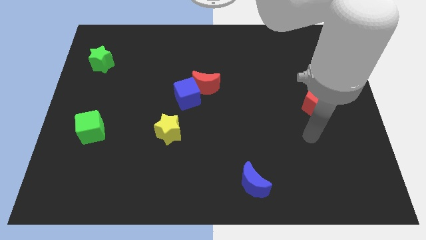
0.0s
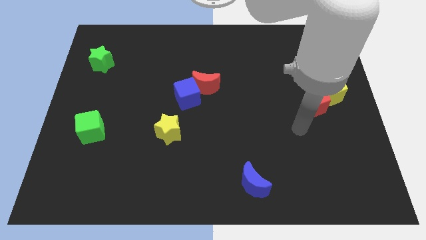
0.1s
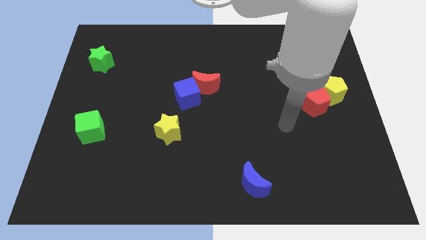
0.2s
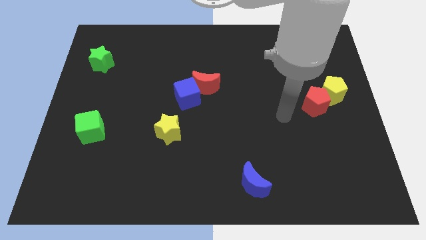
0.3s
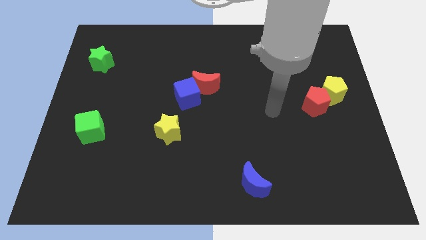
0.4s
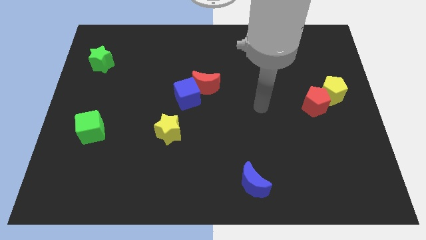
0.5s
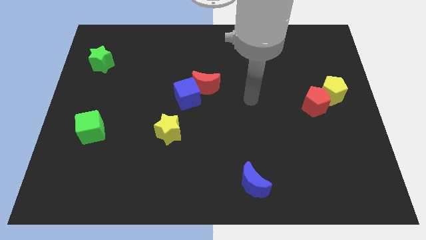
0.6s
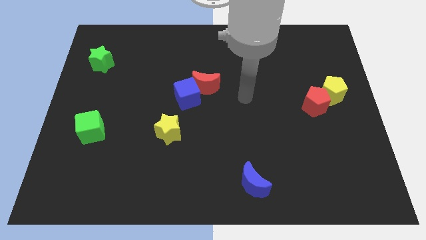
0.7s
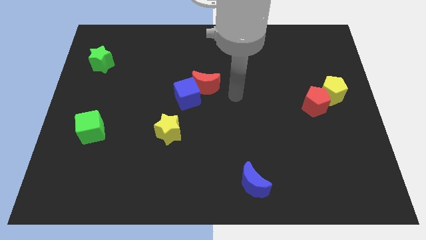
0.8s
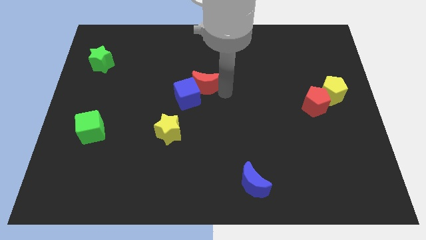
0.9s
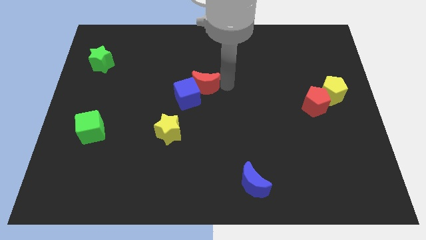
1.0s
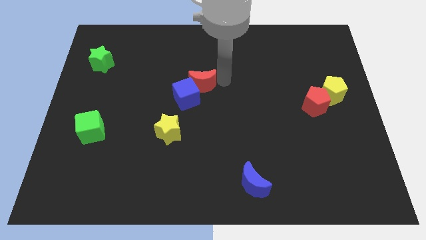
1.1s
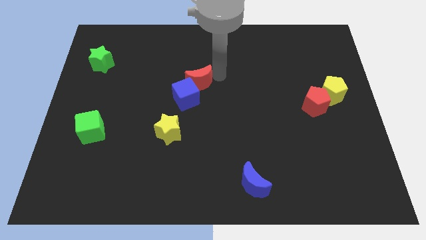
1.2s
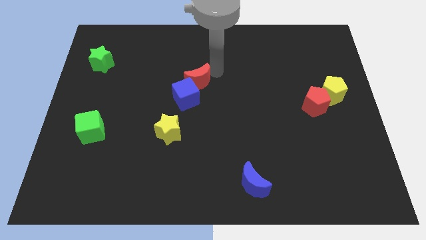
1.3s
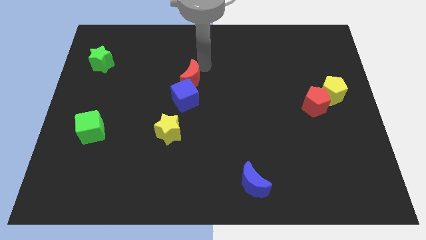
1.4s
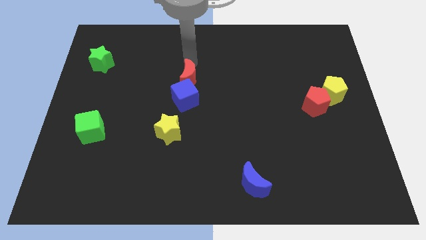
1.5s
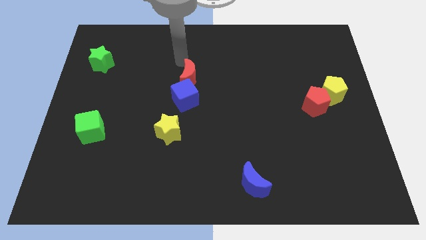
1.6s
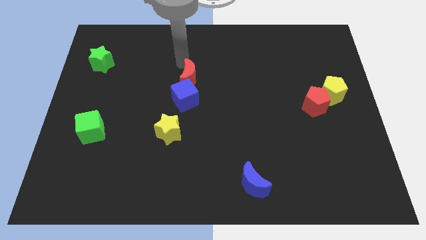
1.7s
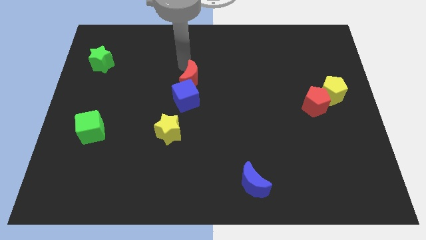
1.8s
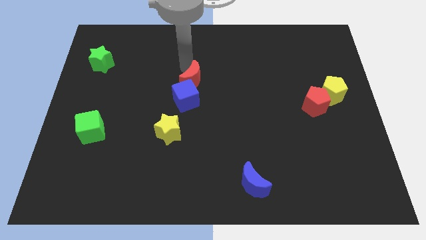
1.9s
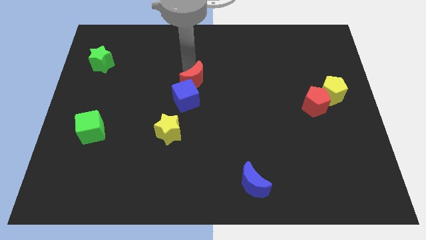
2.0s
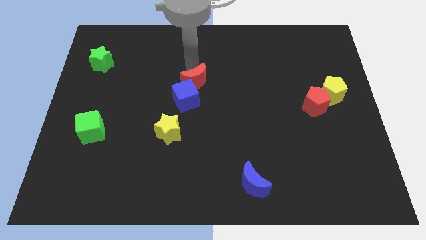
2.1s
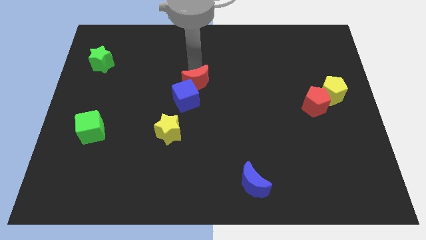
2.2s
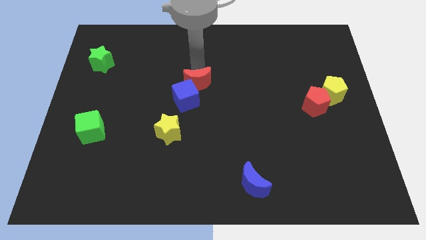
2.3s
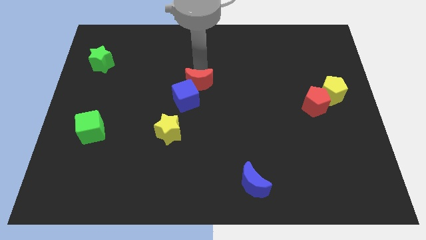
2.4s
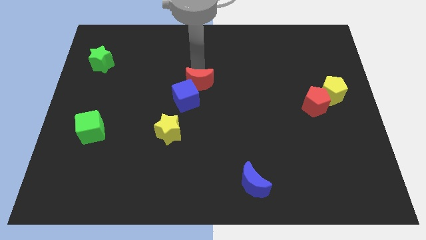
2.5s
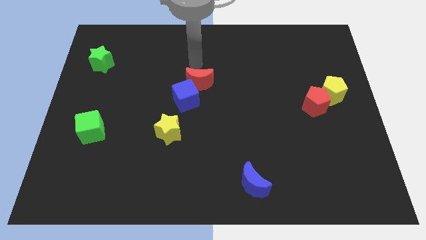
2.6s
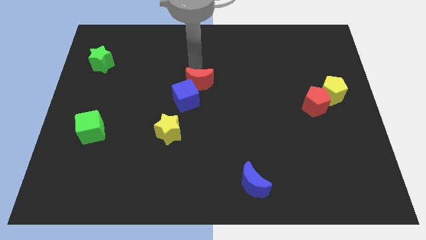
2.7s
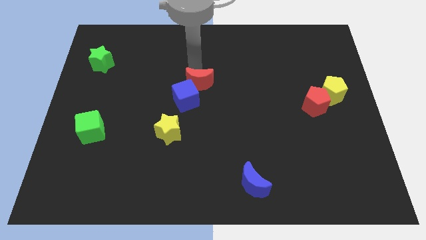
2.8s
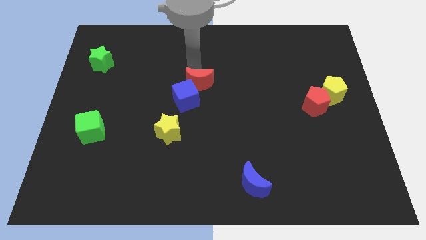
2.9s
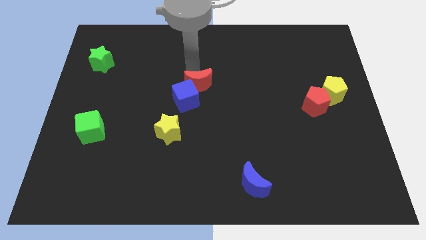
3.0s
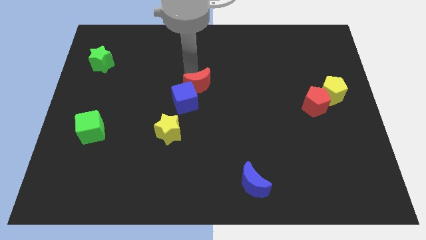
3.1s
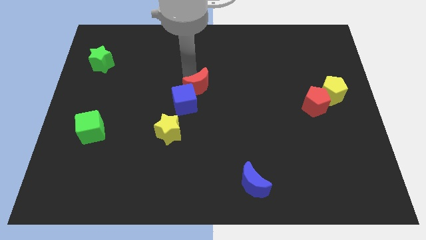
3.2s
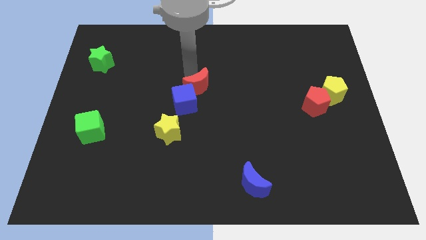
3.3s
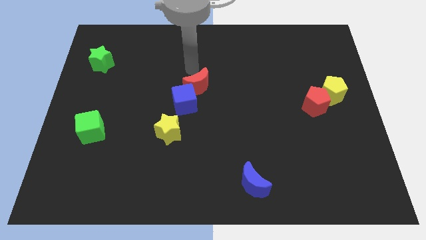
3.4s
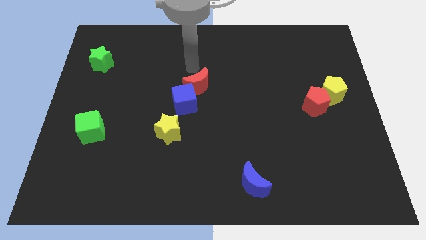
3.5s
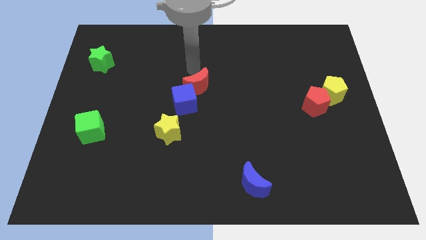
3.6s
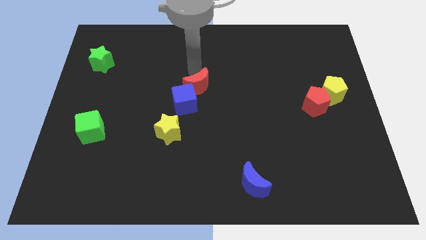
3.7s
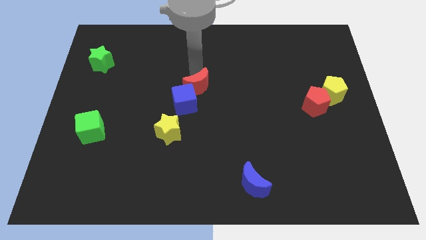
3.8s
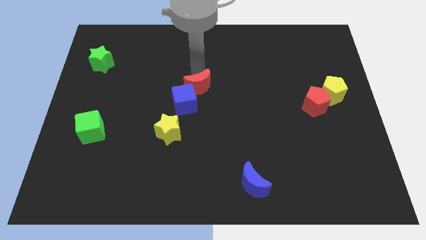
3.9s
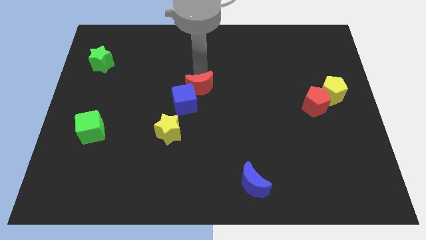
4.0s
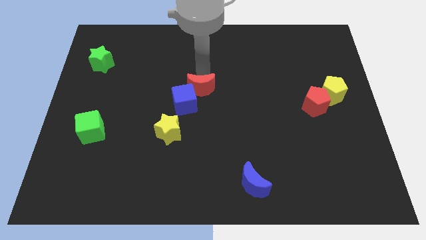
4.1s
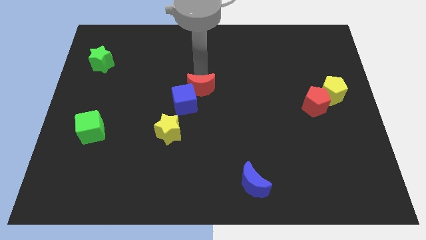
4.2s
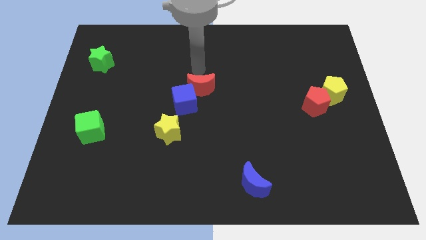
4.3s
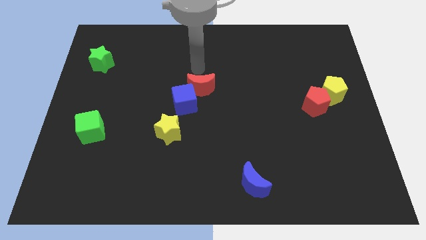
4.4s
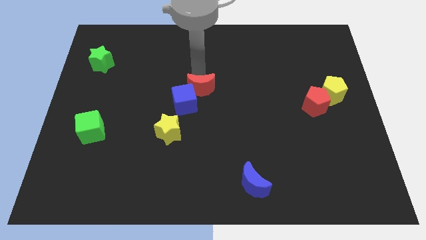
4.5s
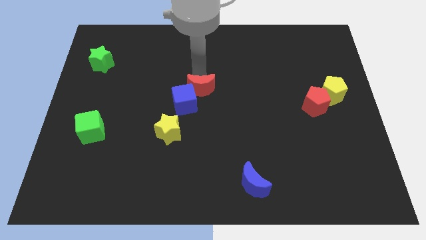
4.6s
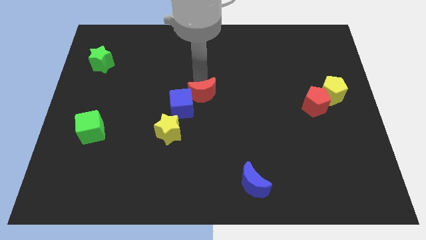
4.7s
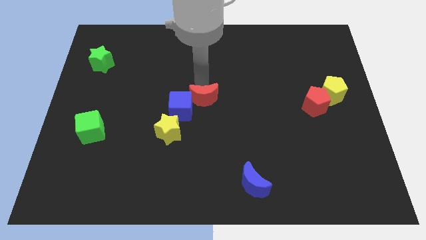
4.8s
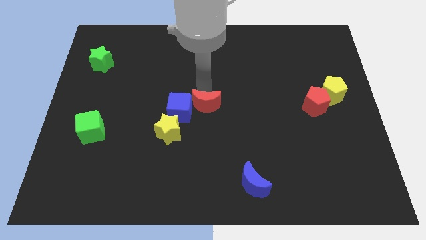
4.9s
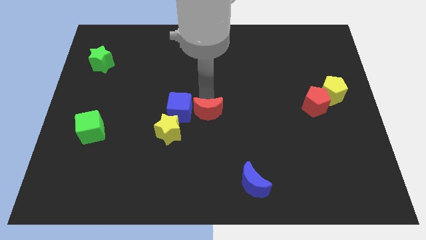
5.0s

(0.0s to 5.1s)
push the red moon down a little bit

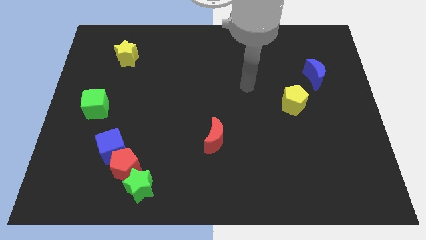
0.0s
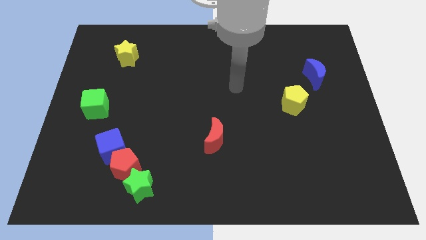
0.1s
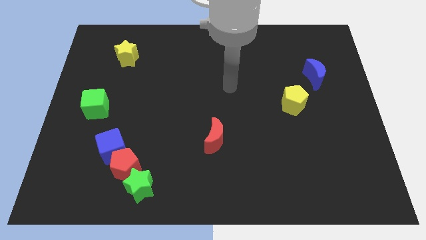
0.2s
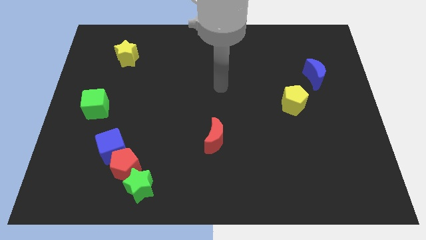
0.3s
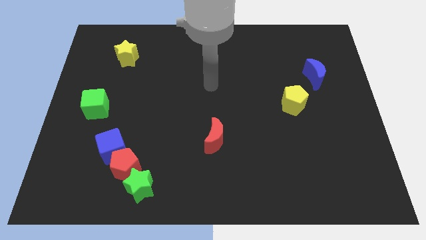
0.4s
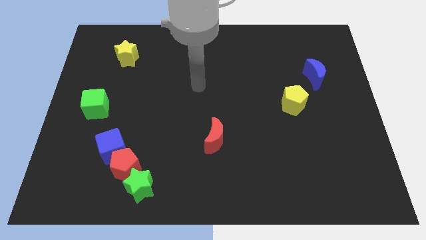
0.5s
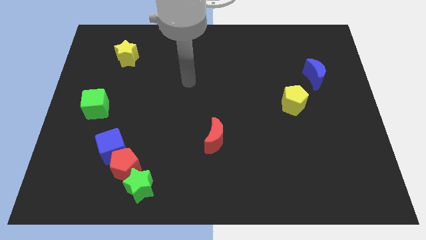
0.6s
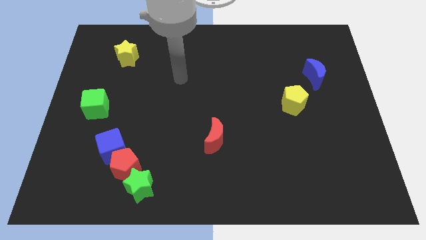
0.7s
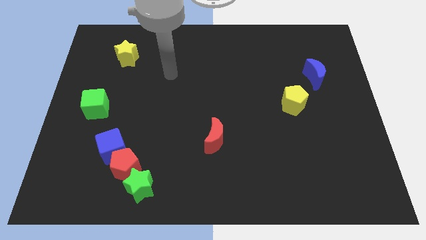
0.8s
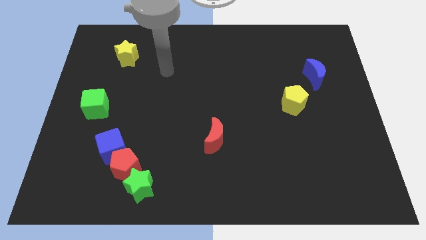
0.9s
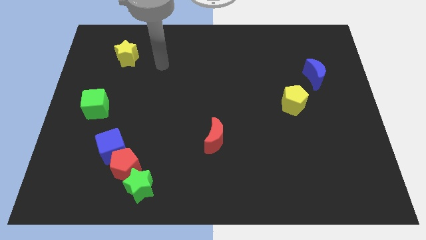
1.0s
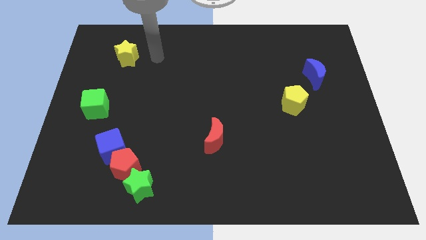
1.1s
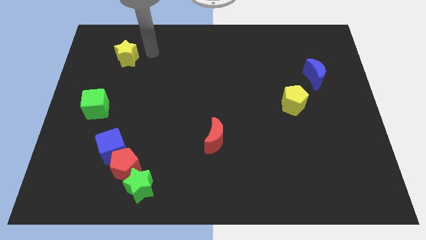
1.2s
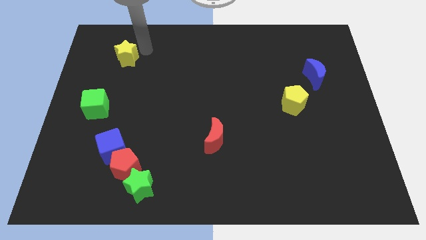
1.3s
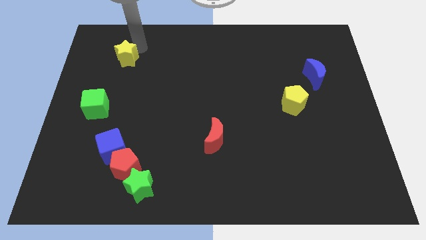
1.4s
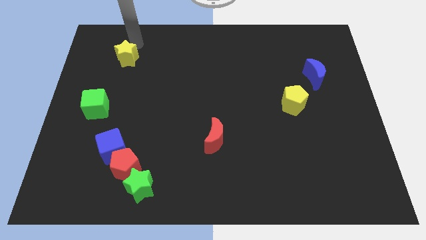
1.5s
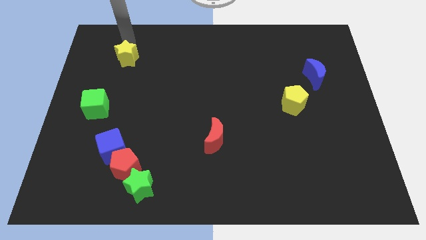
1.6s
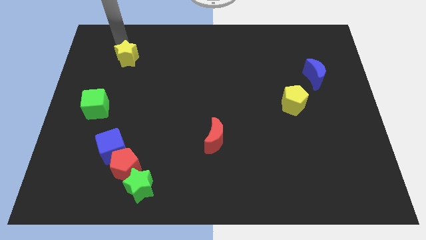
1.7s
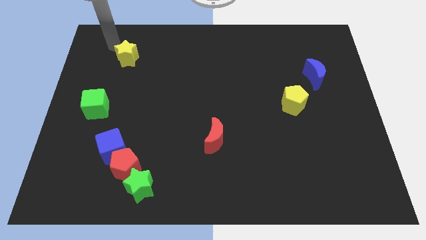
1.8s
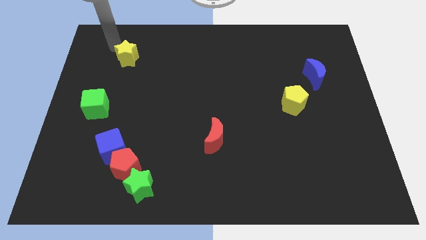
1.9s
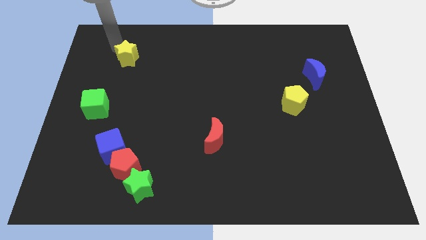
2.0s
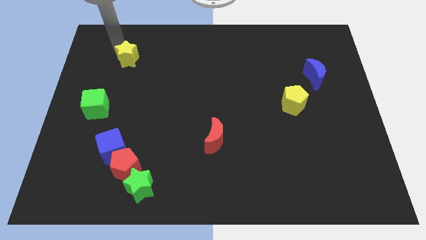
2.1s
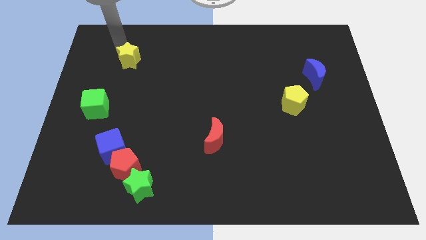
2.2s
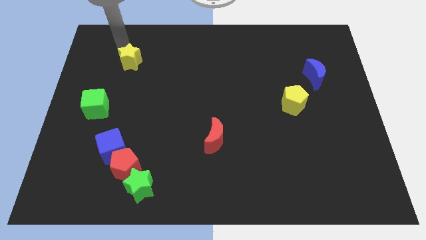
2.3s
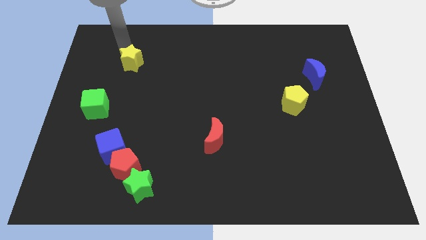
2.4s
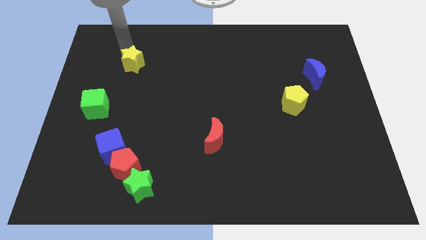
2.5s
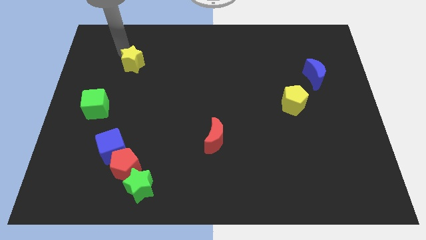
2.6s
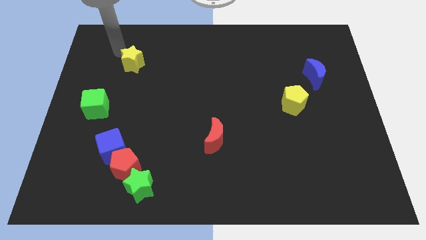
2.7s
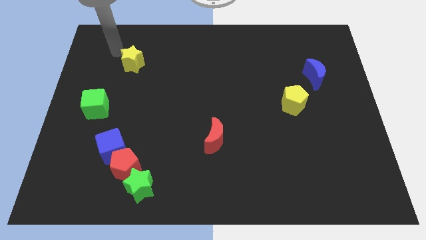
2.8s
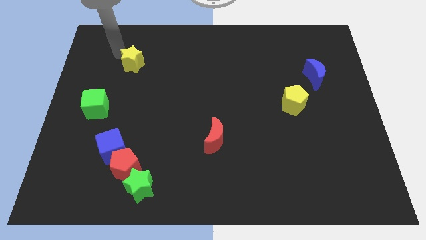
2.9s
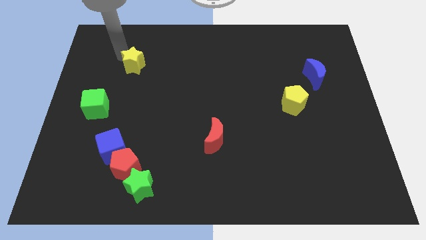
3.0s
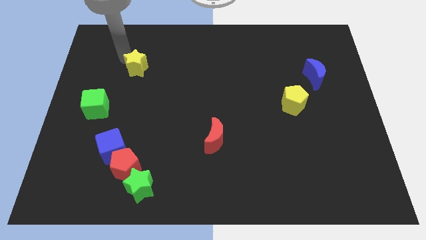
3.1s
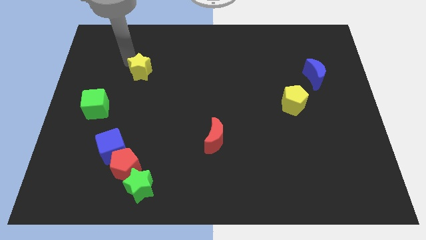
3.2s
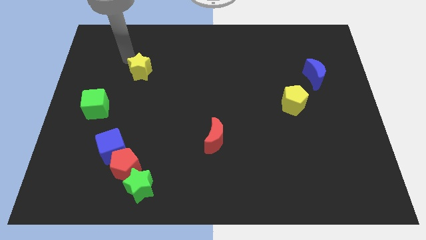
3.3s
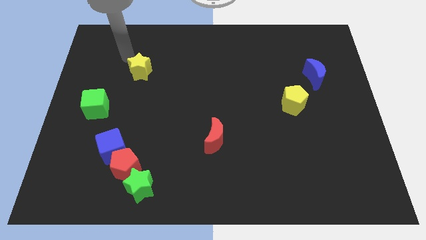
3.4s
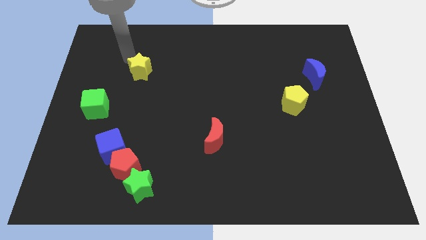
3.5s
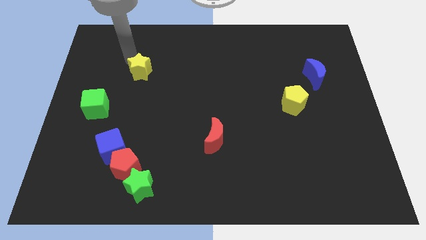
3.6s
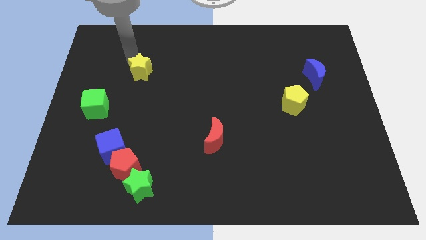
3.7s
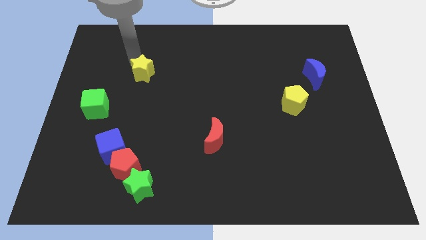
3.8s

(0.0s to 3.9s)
slide the yellow star slightly diagonally downwards and to the right
